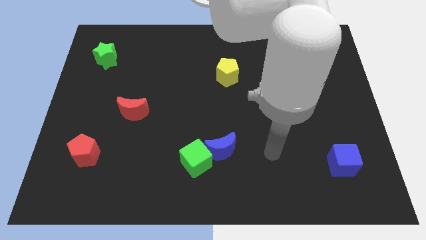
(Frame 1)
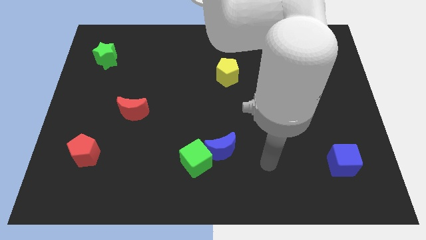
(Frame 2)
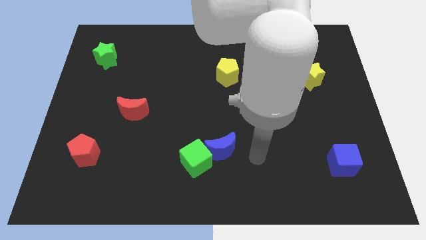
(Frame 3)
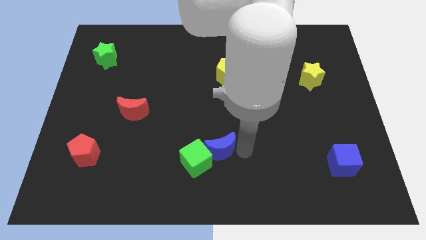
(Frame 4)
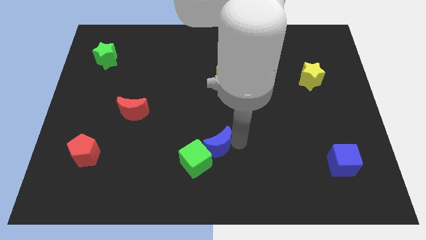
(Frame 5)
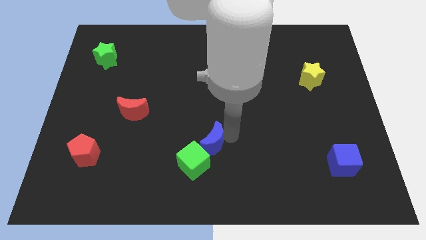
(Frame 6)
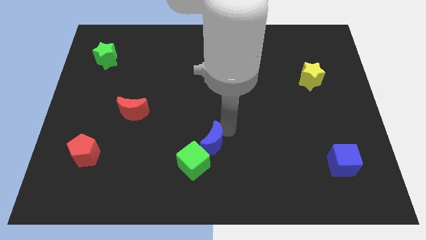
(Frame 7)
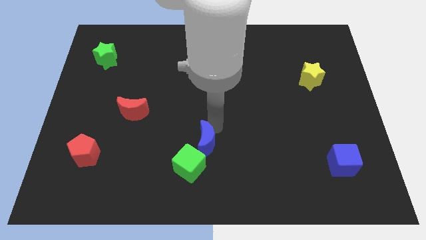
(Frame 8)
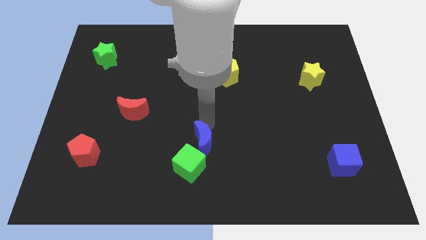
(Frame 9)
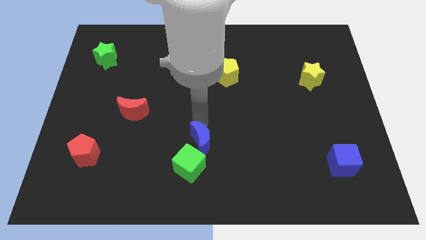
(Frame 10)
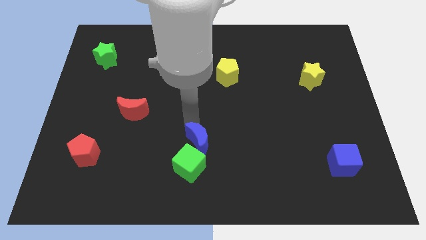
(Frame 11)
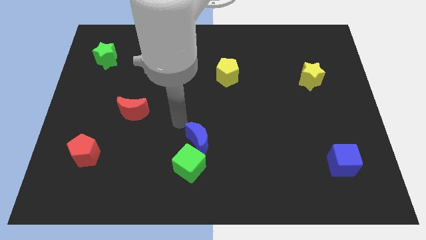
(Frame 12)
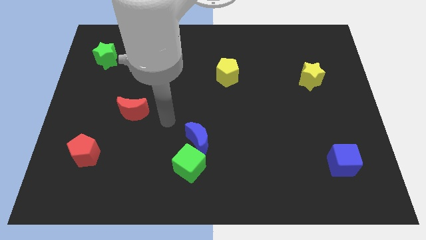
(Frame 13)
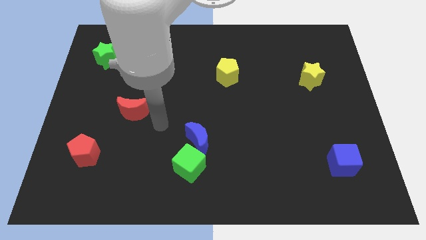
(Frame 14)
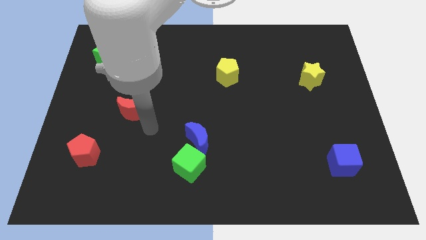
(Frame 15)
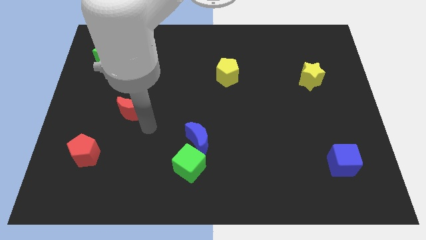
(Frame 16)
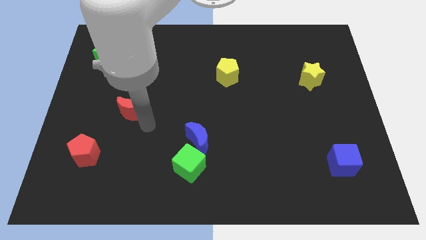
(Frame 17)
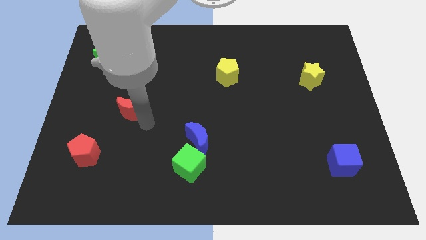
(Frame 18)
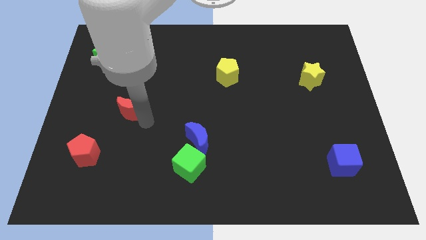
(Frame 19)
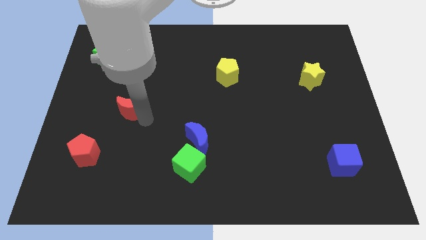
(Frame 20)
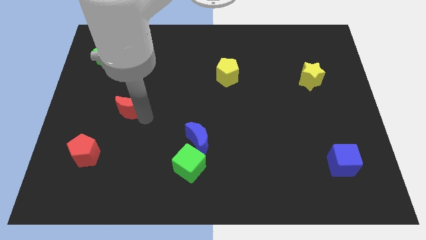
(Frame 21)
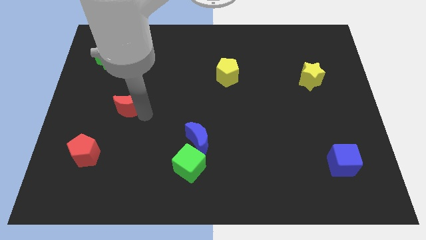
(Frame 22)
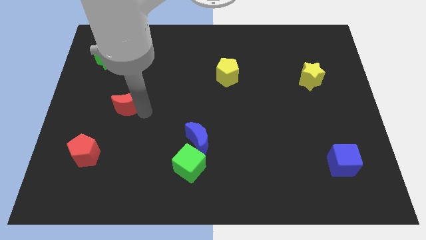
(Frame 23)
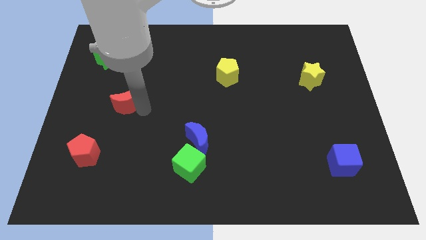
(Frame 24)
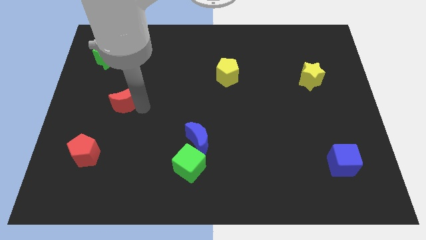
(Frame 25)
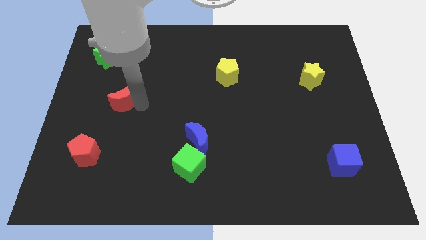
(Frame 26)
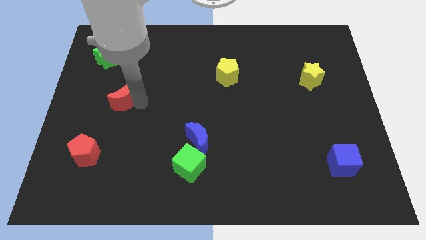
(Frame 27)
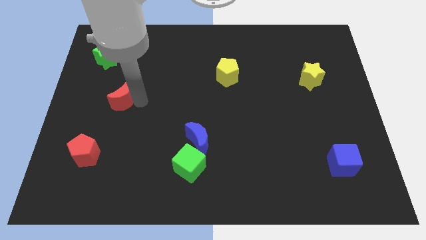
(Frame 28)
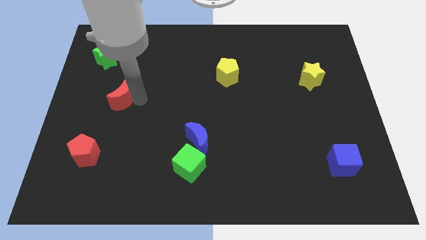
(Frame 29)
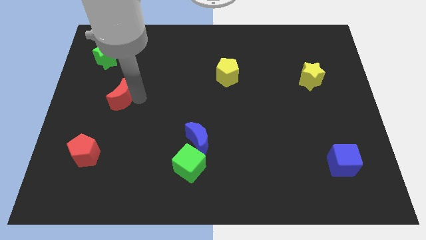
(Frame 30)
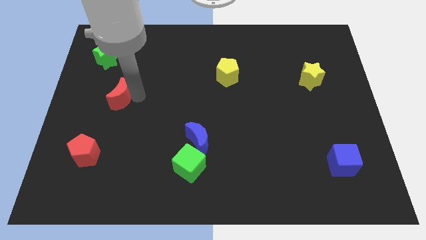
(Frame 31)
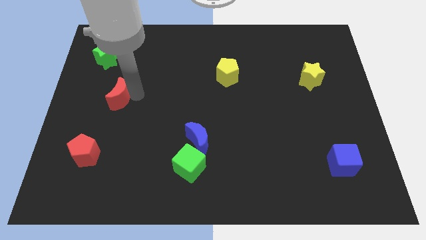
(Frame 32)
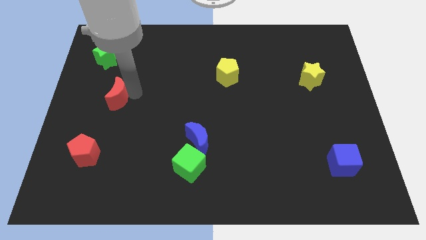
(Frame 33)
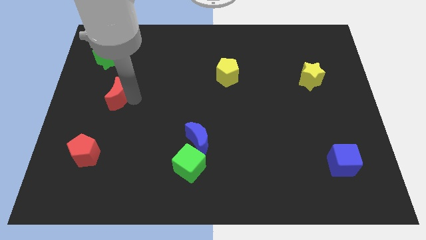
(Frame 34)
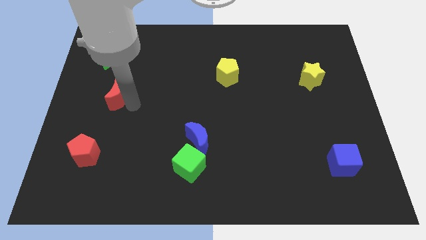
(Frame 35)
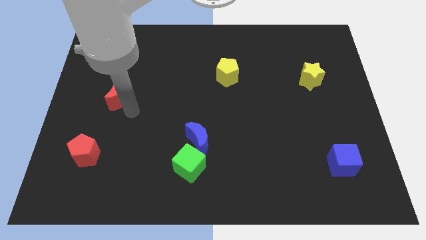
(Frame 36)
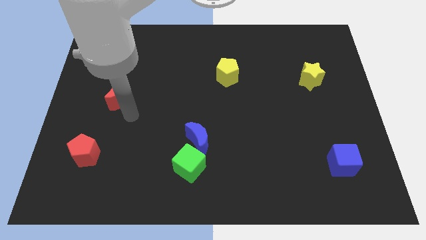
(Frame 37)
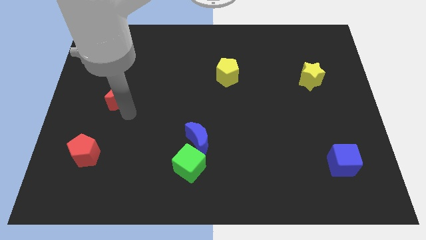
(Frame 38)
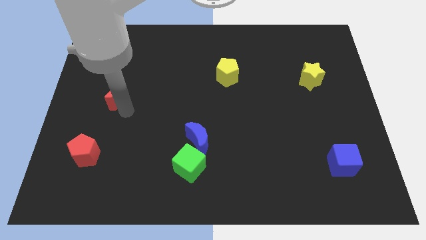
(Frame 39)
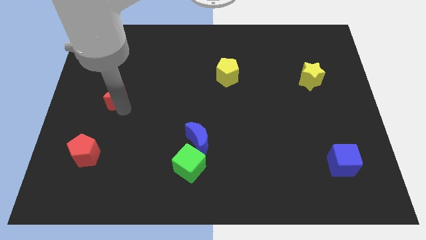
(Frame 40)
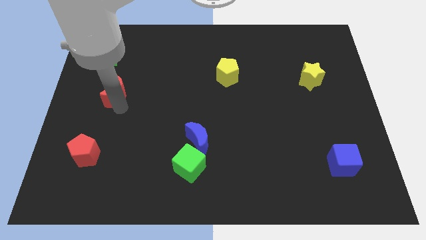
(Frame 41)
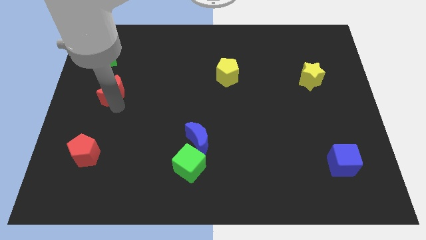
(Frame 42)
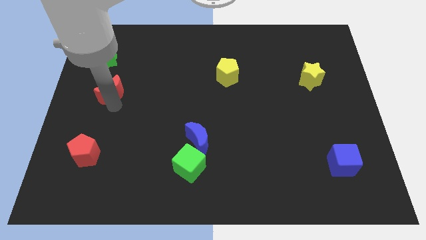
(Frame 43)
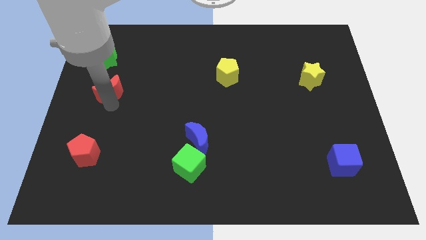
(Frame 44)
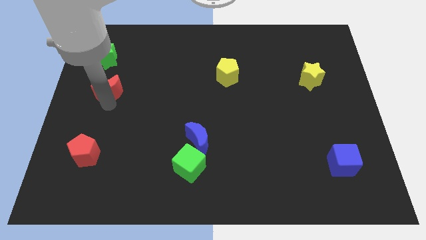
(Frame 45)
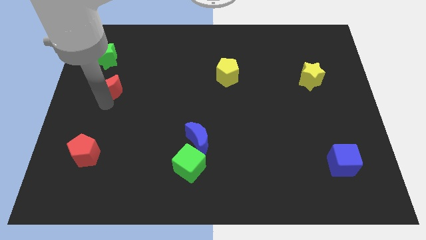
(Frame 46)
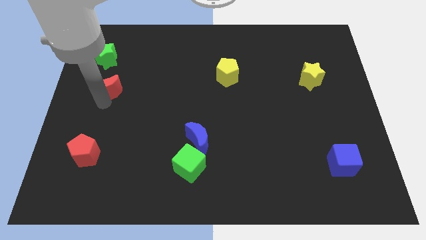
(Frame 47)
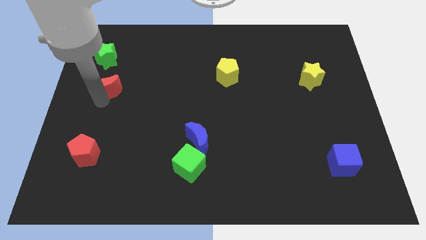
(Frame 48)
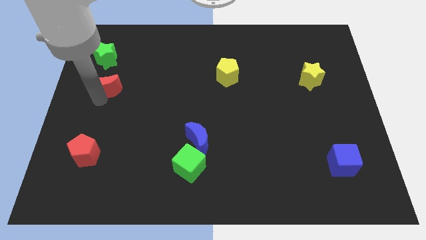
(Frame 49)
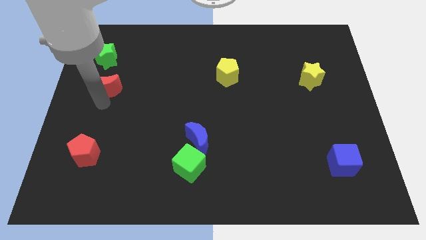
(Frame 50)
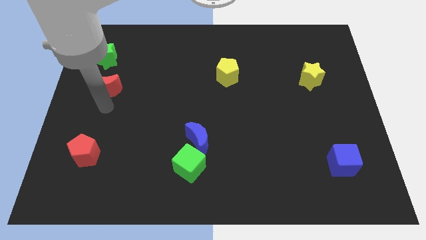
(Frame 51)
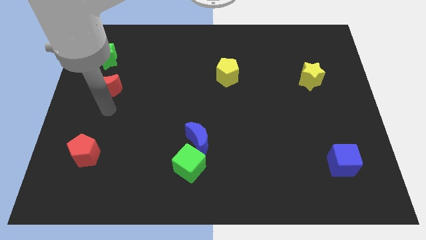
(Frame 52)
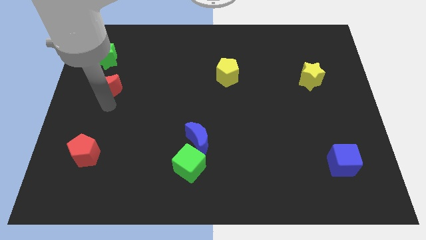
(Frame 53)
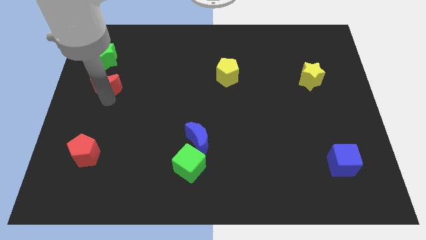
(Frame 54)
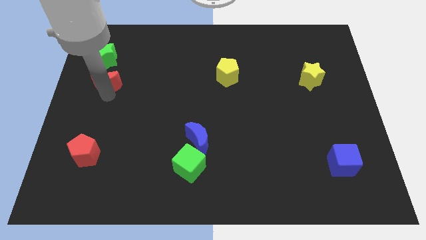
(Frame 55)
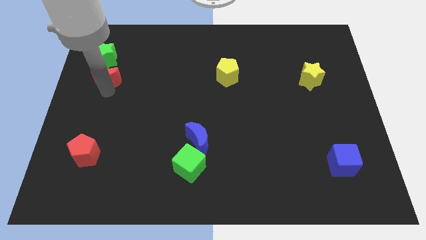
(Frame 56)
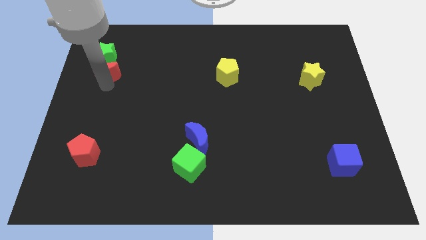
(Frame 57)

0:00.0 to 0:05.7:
slide the red moon towards the green star

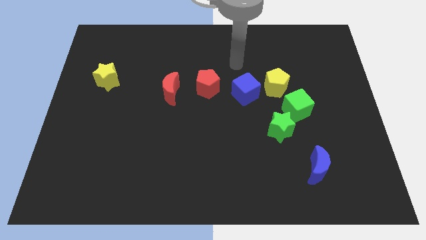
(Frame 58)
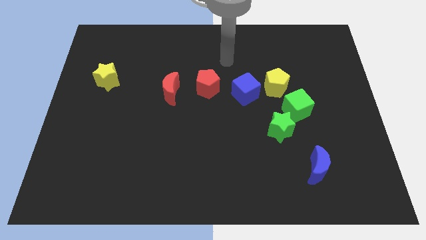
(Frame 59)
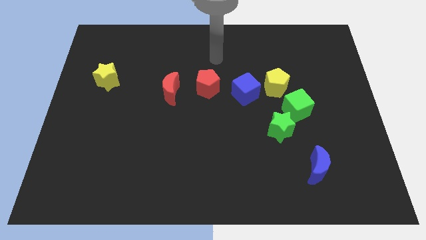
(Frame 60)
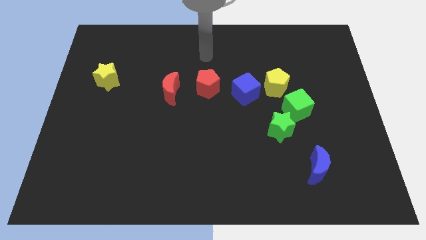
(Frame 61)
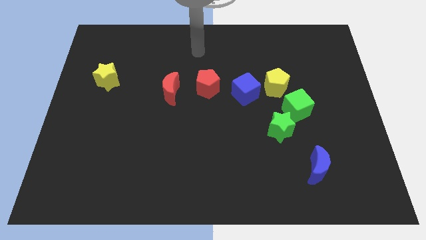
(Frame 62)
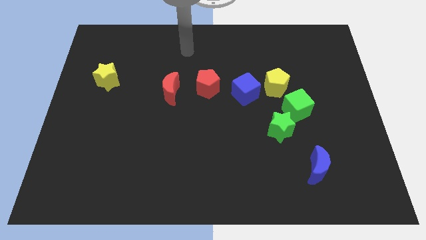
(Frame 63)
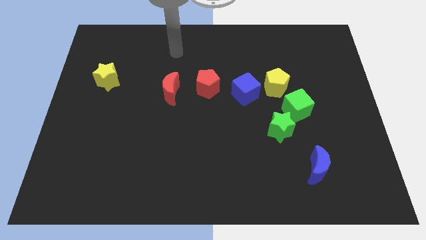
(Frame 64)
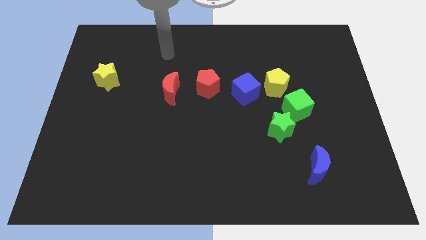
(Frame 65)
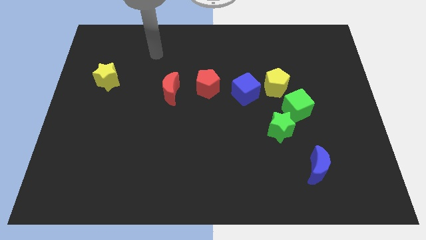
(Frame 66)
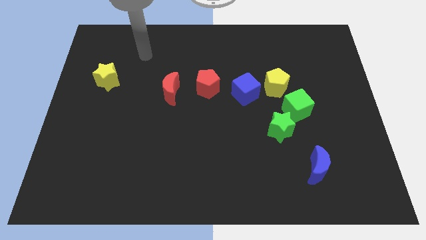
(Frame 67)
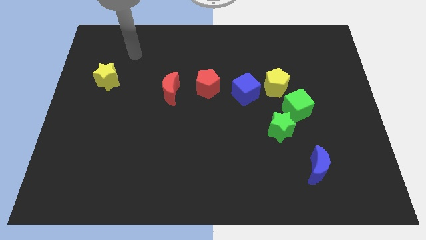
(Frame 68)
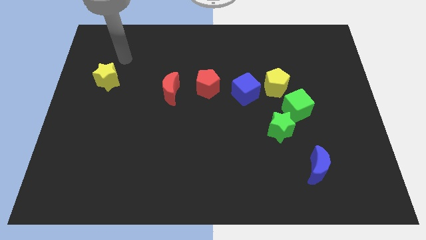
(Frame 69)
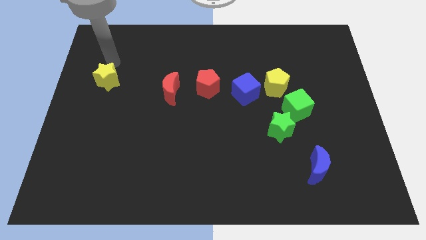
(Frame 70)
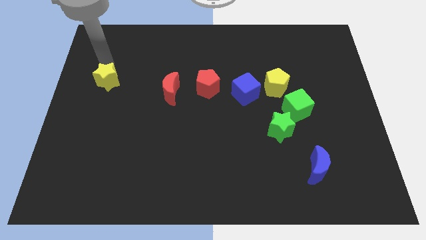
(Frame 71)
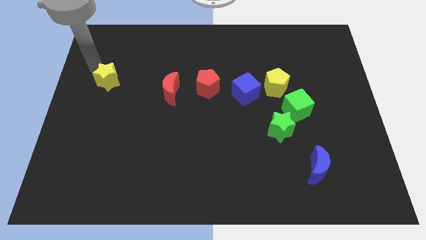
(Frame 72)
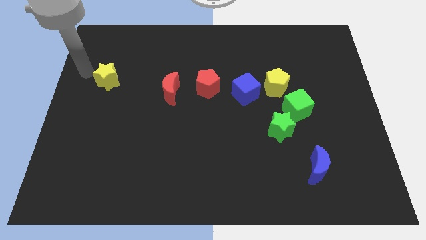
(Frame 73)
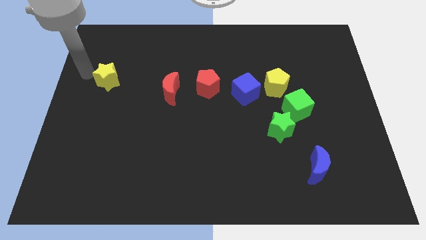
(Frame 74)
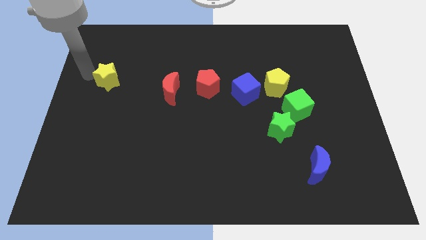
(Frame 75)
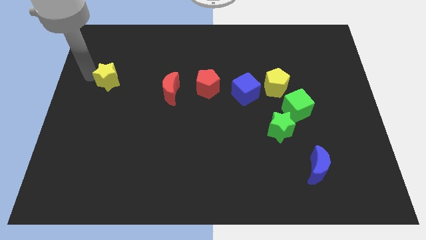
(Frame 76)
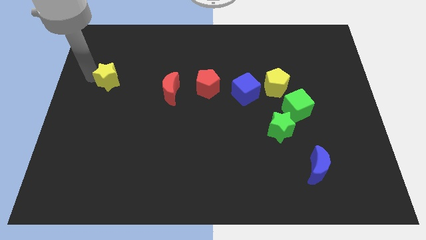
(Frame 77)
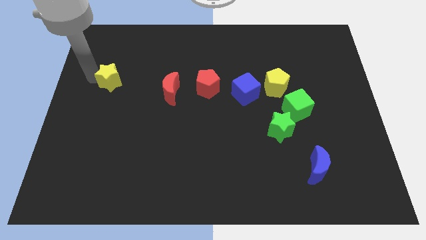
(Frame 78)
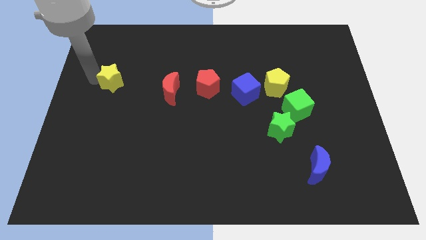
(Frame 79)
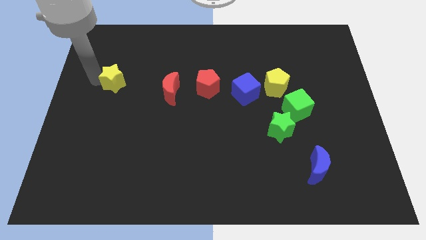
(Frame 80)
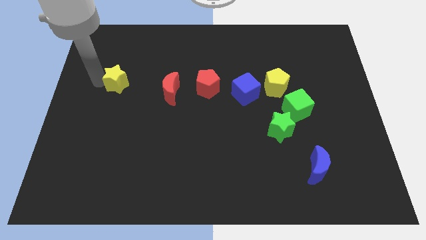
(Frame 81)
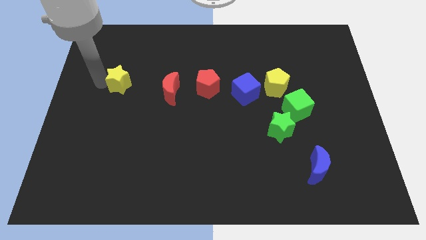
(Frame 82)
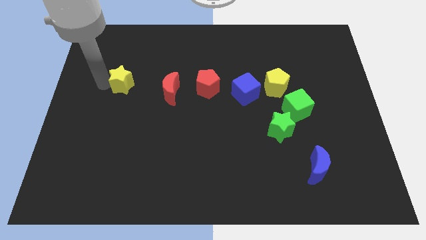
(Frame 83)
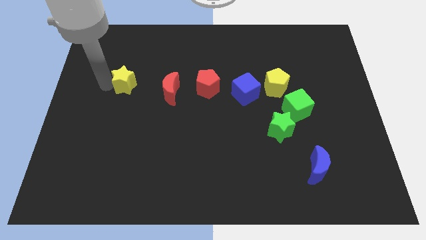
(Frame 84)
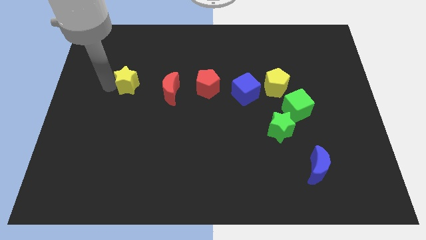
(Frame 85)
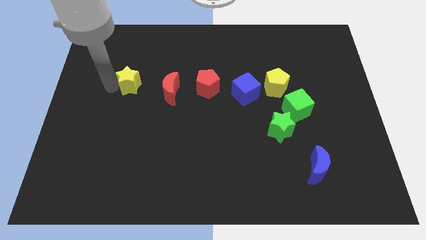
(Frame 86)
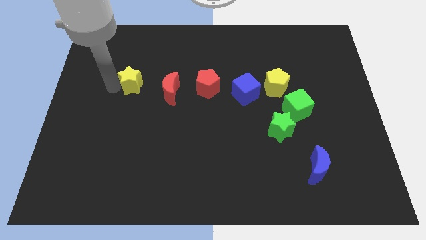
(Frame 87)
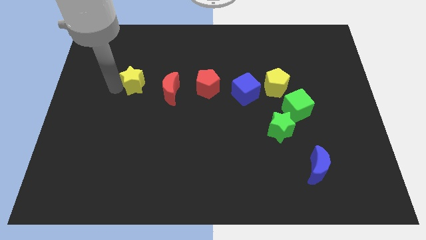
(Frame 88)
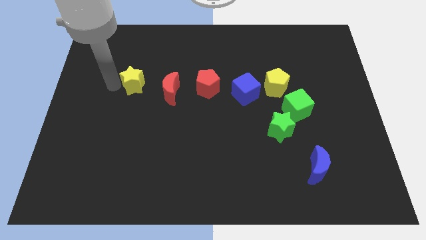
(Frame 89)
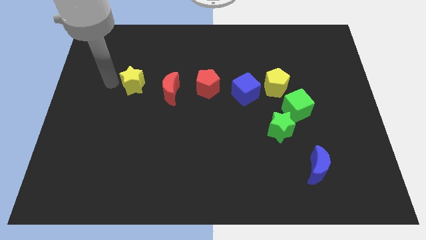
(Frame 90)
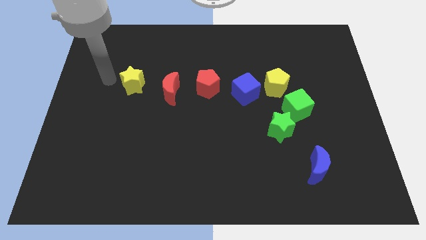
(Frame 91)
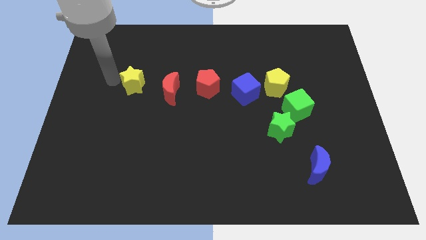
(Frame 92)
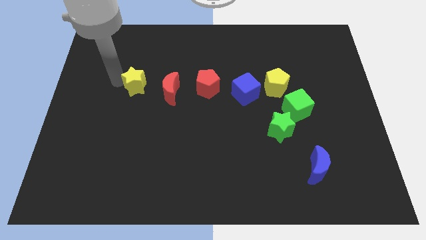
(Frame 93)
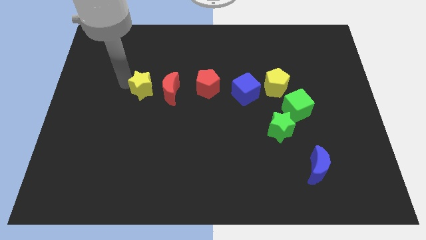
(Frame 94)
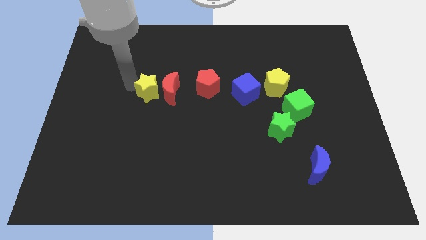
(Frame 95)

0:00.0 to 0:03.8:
push the yellow star next to the red moon
